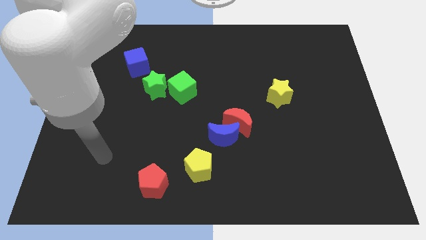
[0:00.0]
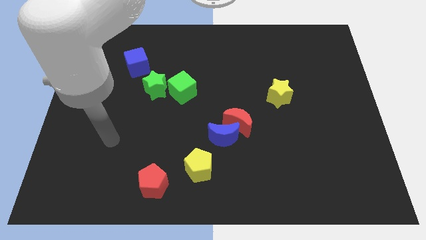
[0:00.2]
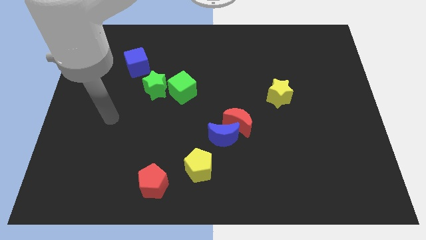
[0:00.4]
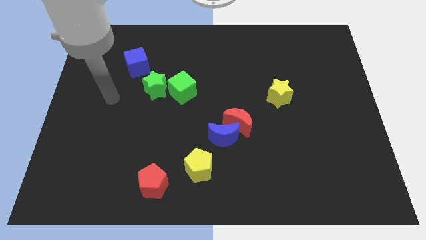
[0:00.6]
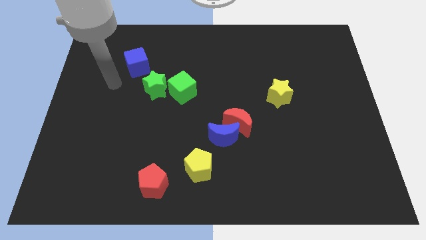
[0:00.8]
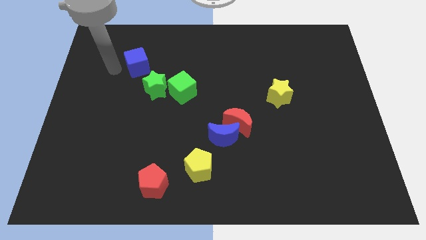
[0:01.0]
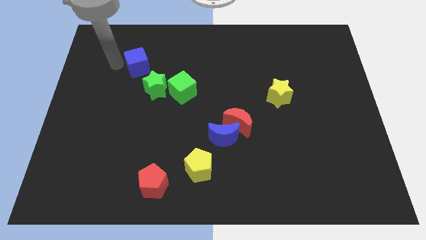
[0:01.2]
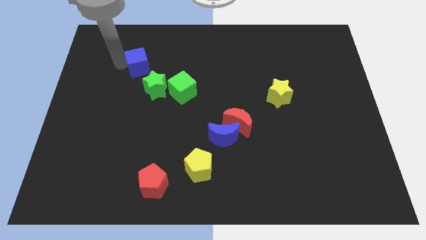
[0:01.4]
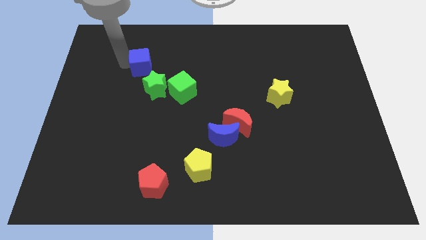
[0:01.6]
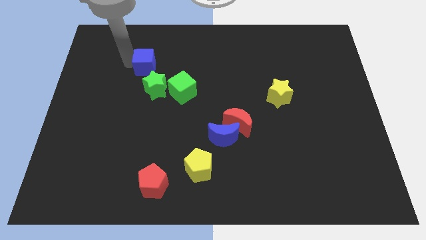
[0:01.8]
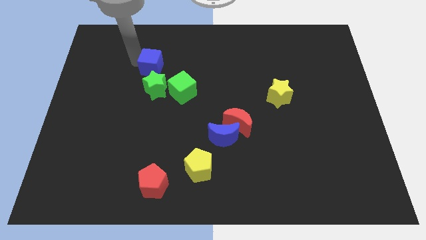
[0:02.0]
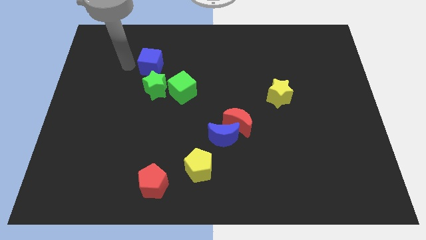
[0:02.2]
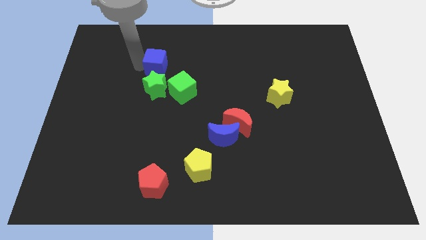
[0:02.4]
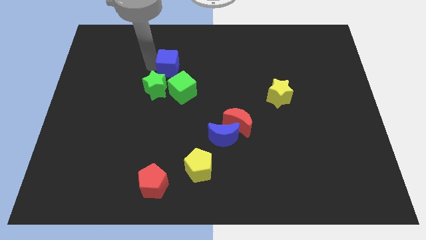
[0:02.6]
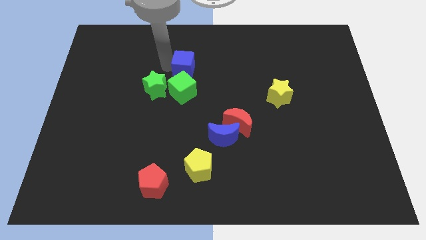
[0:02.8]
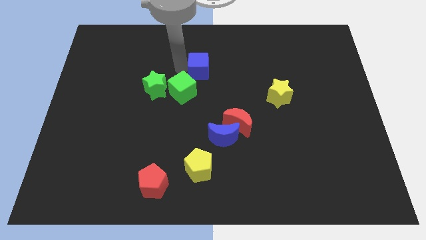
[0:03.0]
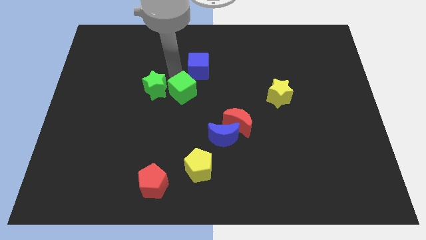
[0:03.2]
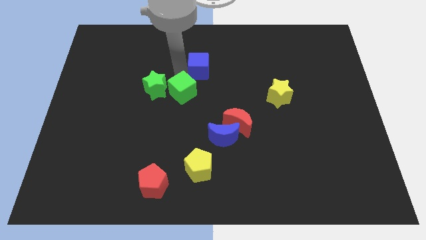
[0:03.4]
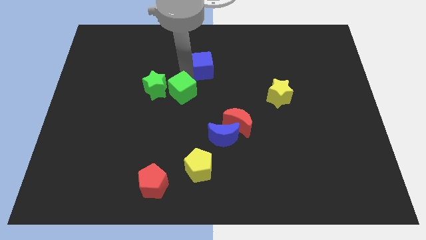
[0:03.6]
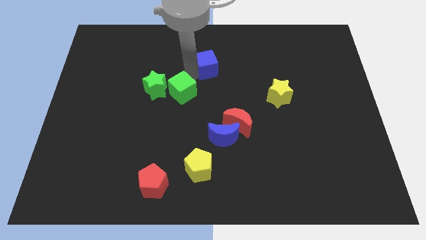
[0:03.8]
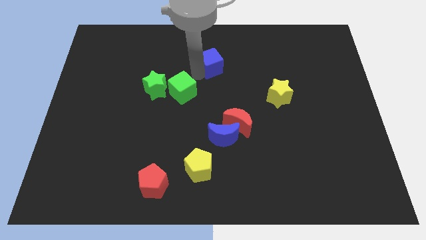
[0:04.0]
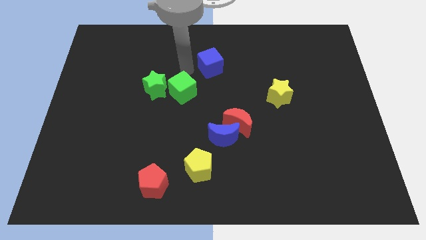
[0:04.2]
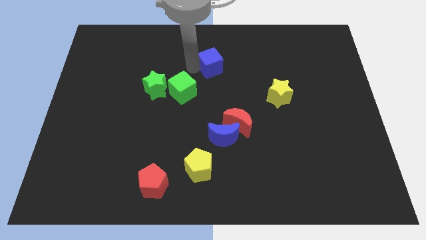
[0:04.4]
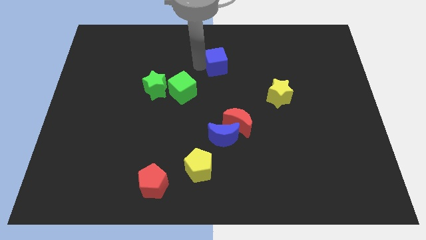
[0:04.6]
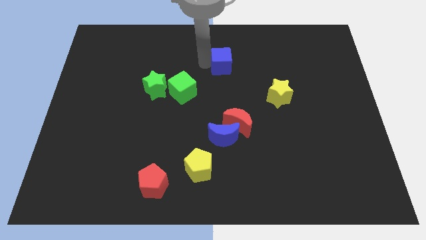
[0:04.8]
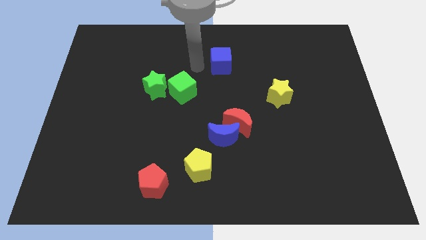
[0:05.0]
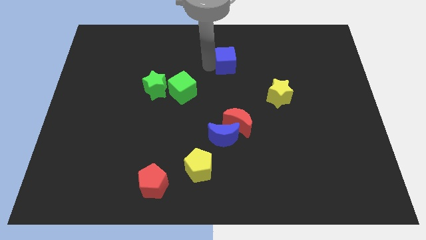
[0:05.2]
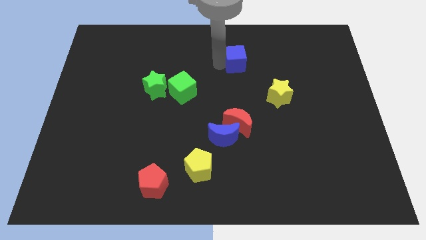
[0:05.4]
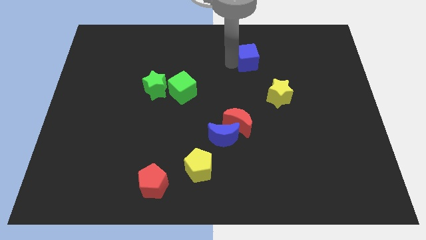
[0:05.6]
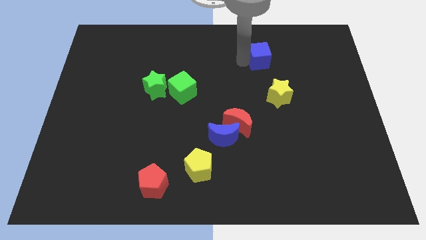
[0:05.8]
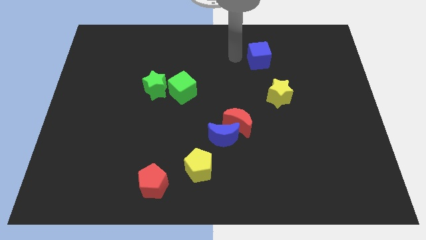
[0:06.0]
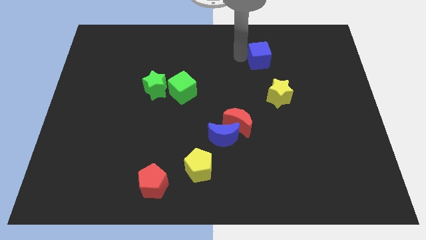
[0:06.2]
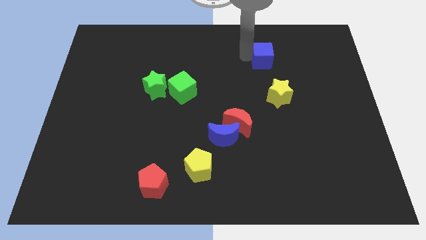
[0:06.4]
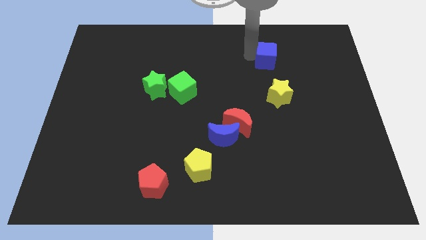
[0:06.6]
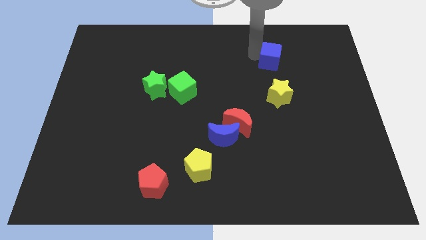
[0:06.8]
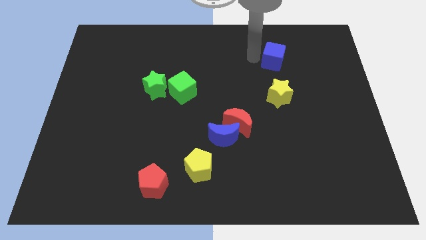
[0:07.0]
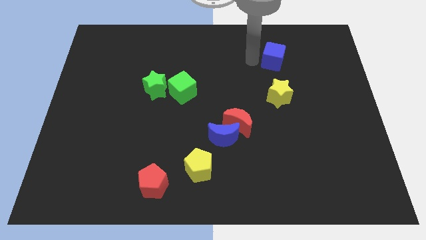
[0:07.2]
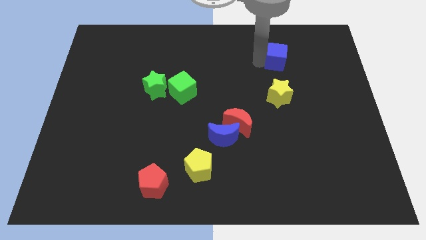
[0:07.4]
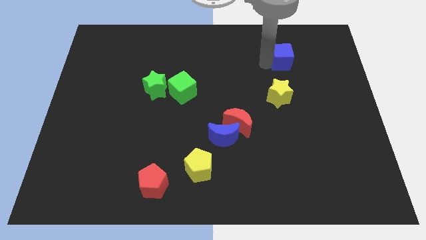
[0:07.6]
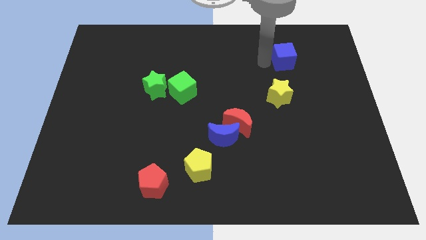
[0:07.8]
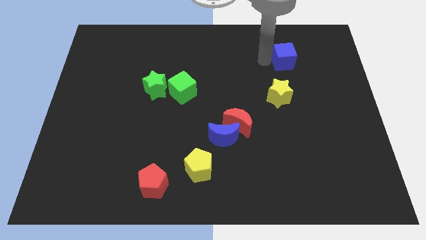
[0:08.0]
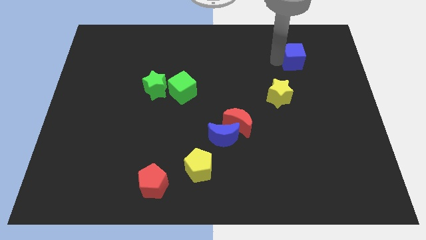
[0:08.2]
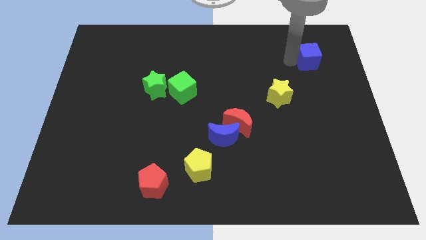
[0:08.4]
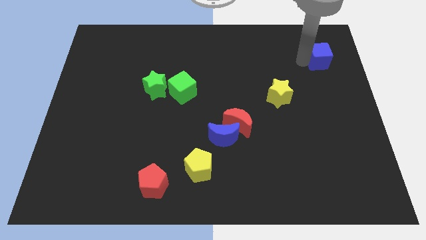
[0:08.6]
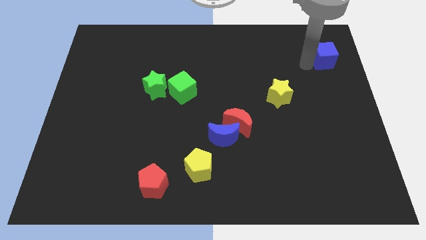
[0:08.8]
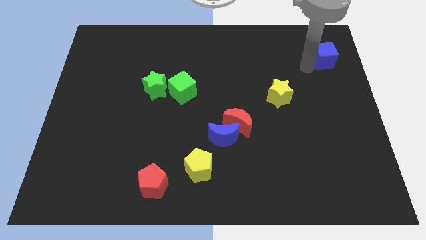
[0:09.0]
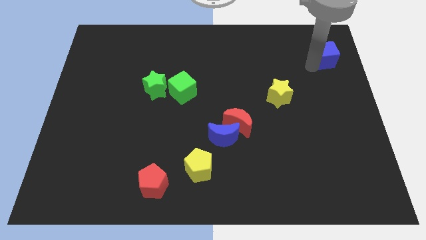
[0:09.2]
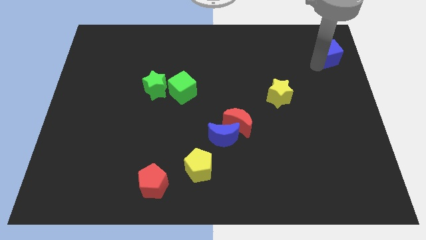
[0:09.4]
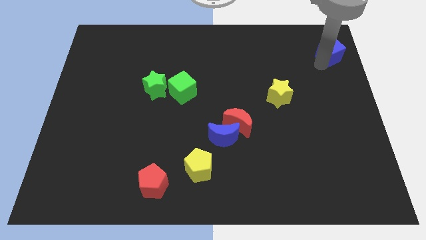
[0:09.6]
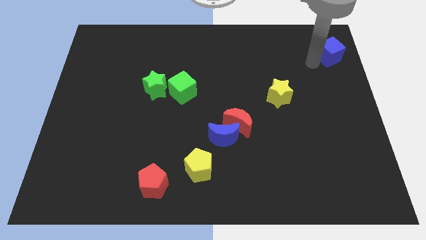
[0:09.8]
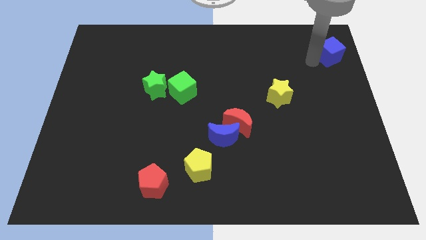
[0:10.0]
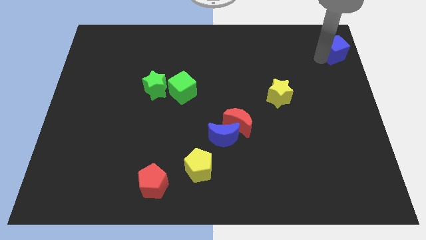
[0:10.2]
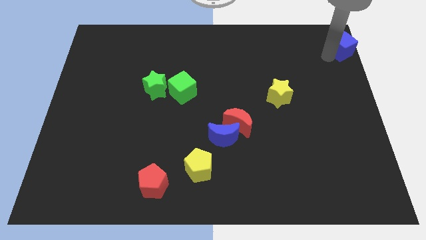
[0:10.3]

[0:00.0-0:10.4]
move the blue cube to the top right corner

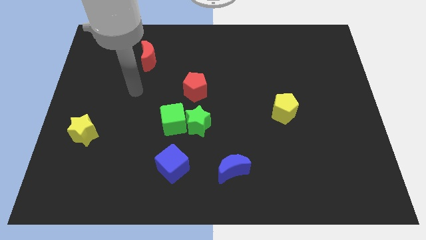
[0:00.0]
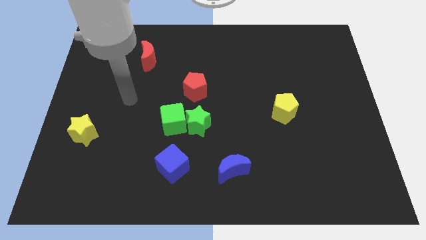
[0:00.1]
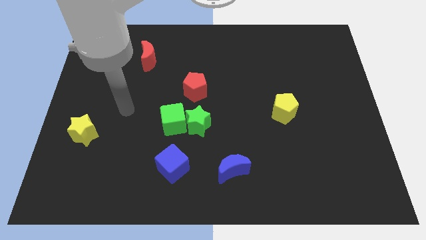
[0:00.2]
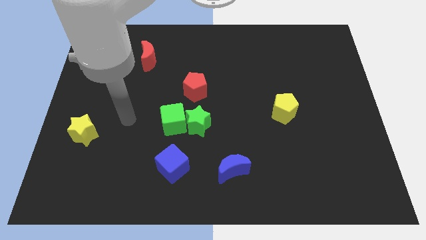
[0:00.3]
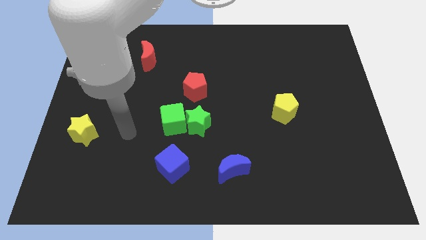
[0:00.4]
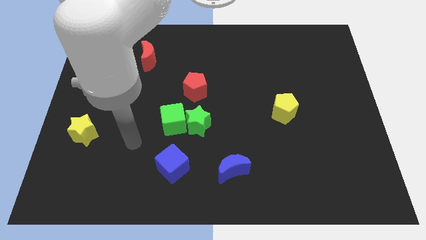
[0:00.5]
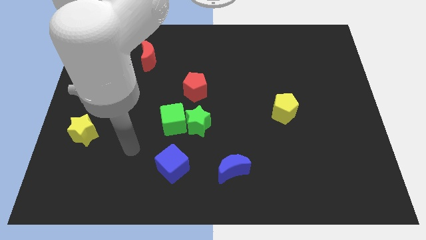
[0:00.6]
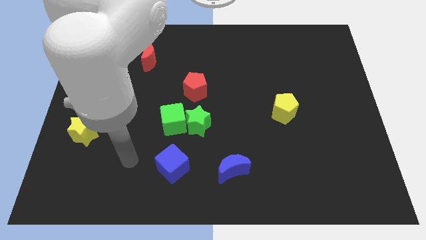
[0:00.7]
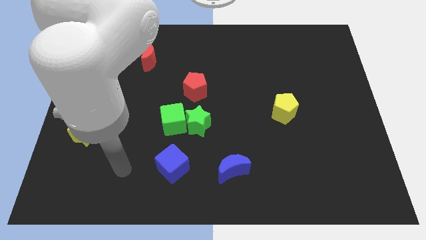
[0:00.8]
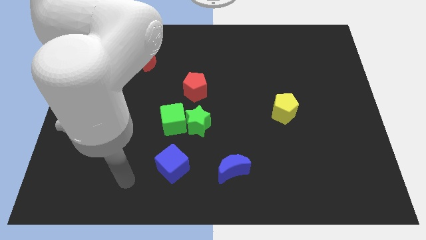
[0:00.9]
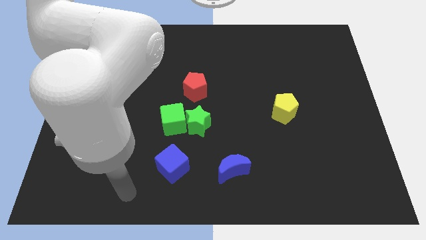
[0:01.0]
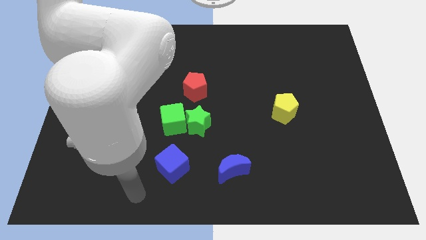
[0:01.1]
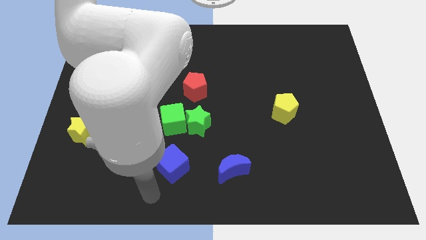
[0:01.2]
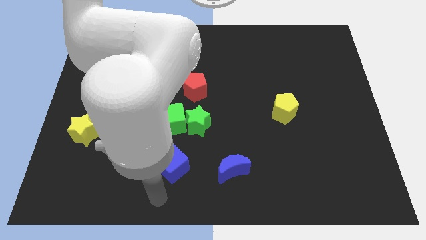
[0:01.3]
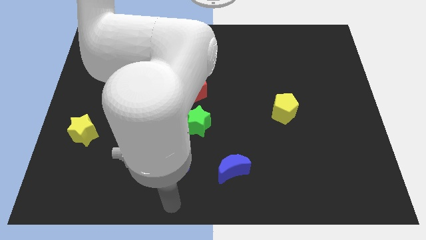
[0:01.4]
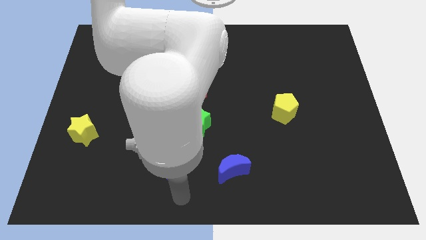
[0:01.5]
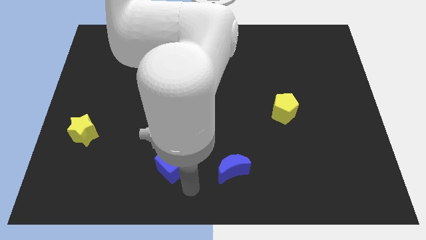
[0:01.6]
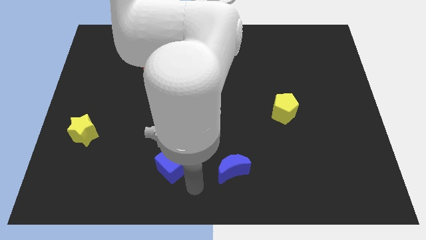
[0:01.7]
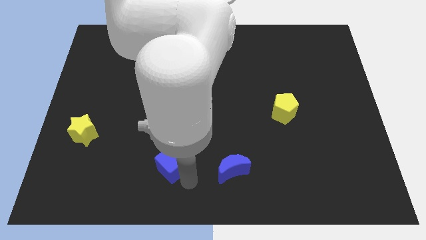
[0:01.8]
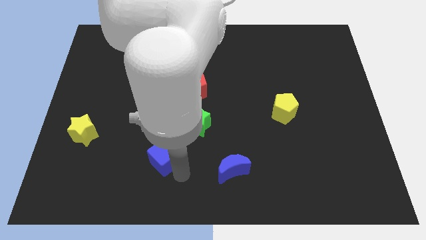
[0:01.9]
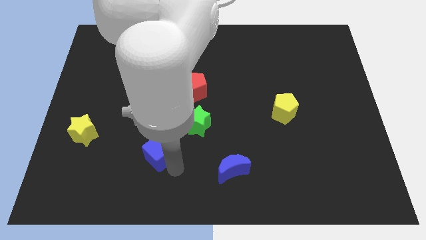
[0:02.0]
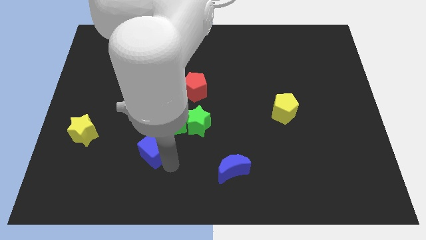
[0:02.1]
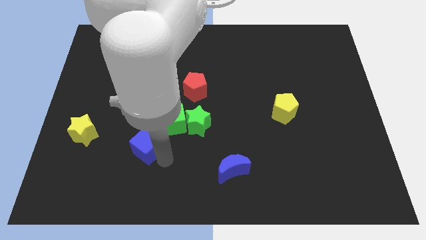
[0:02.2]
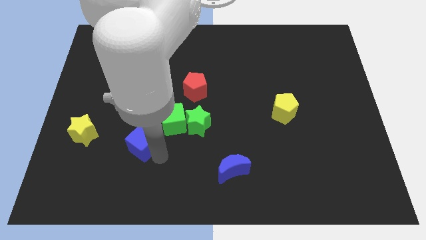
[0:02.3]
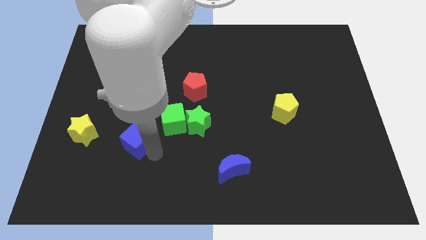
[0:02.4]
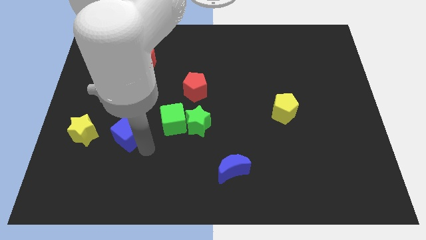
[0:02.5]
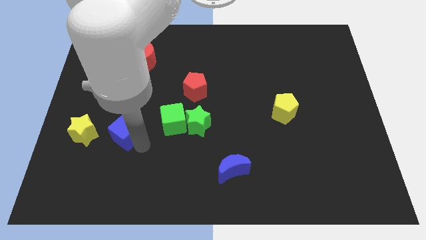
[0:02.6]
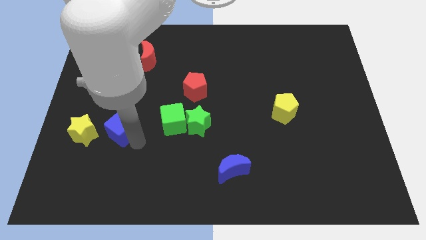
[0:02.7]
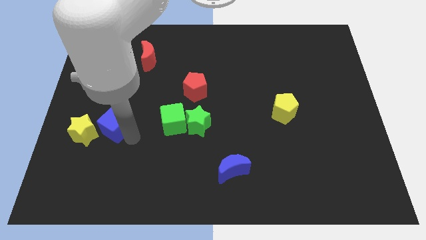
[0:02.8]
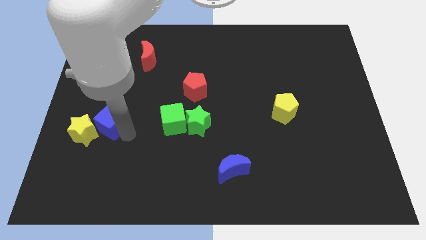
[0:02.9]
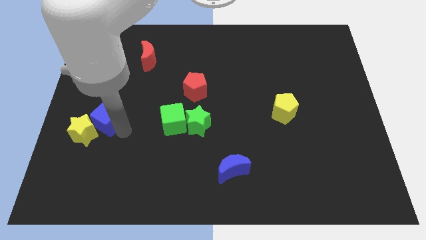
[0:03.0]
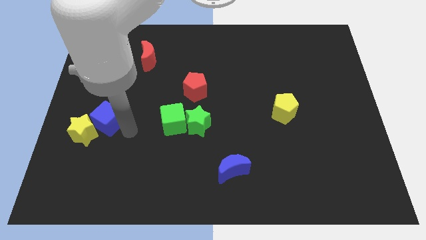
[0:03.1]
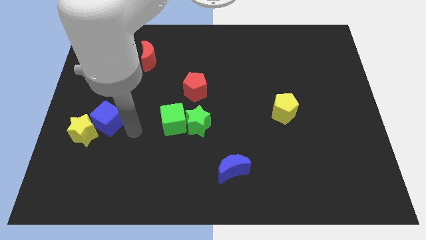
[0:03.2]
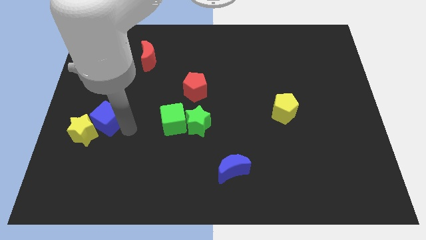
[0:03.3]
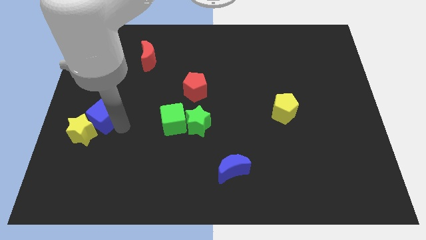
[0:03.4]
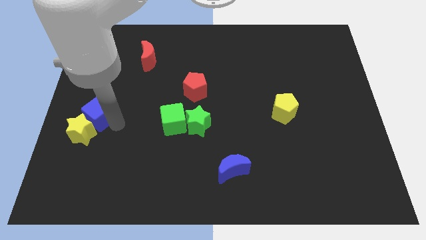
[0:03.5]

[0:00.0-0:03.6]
push the blue cube to the left side of the board
